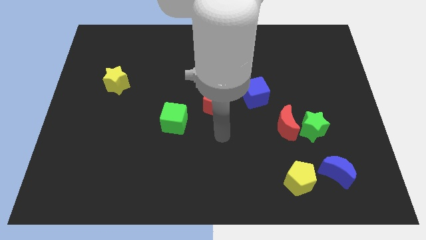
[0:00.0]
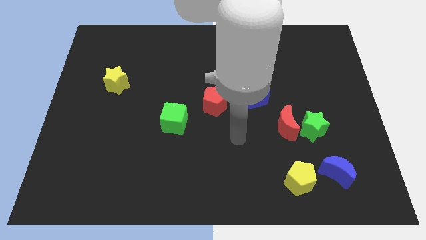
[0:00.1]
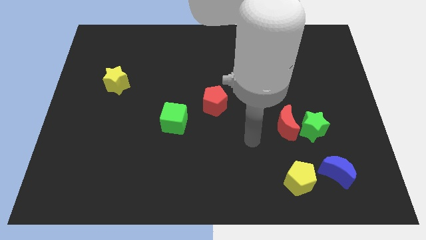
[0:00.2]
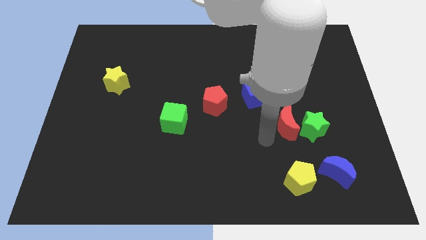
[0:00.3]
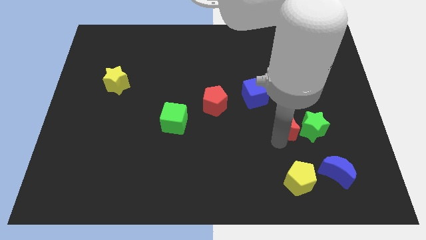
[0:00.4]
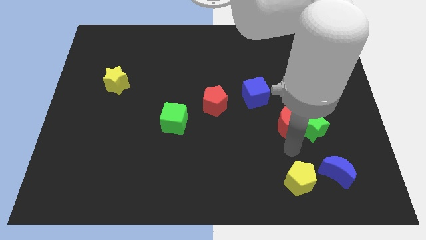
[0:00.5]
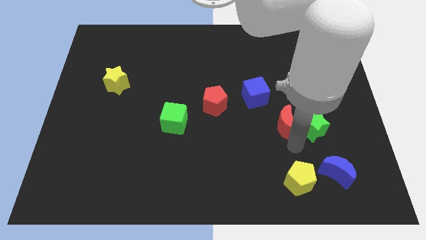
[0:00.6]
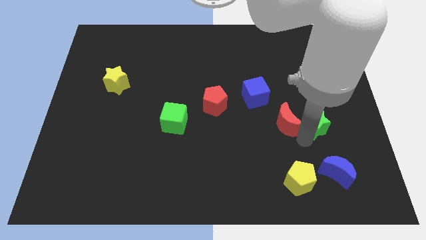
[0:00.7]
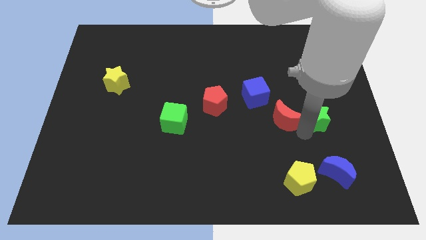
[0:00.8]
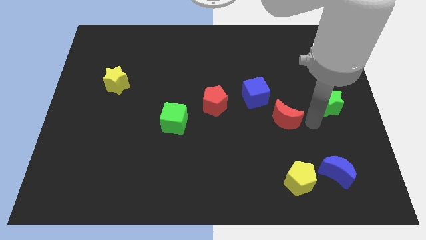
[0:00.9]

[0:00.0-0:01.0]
separate the red moon from the green star

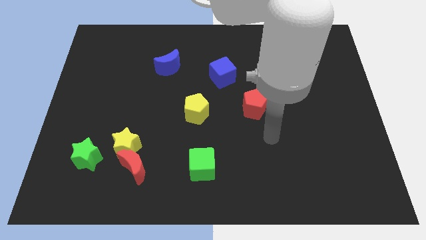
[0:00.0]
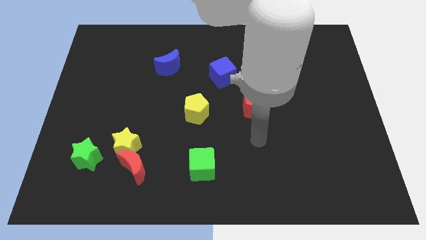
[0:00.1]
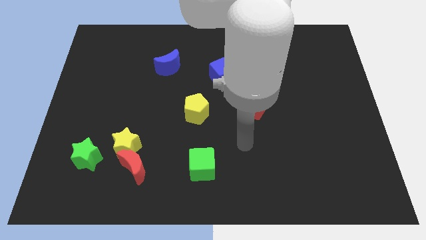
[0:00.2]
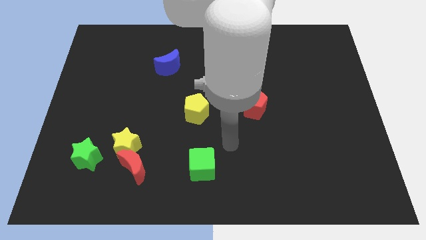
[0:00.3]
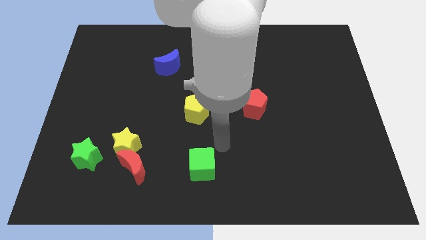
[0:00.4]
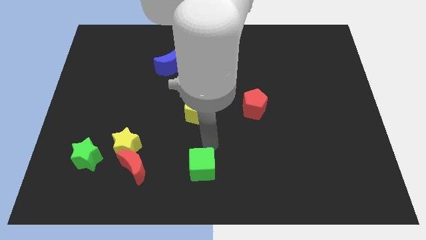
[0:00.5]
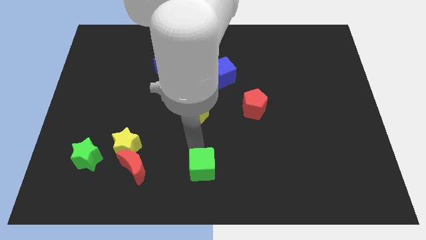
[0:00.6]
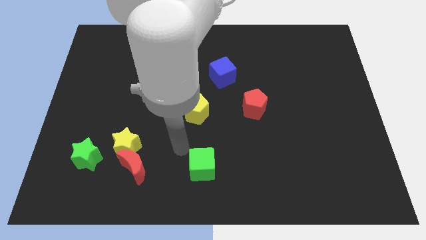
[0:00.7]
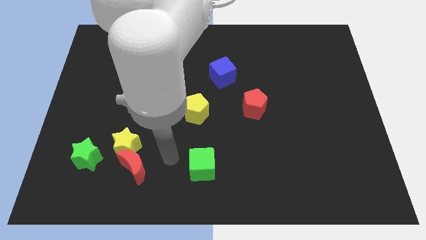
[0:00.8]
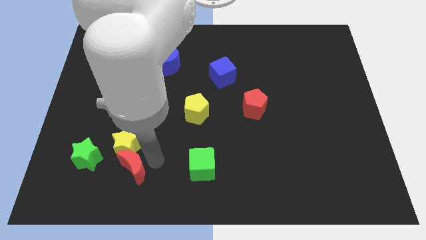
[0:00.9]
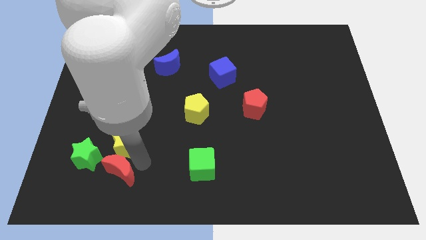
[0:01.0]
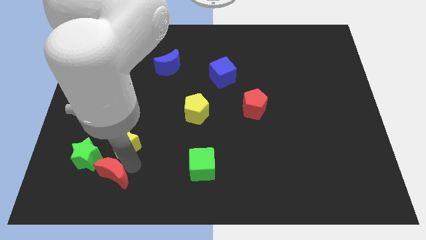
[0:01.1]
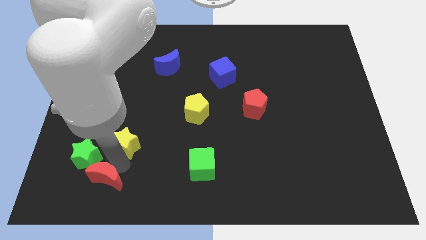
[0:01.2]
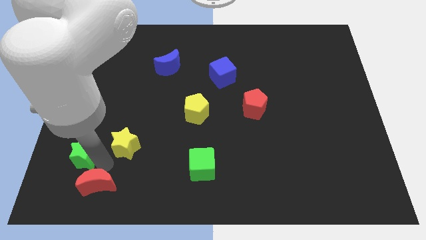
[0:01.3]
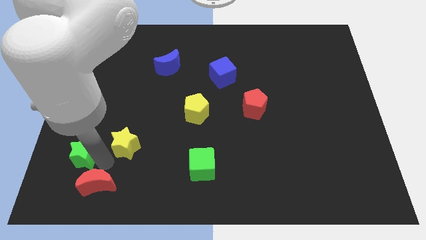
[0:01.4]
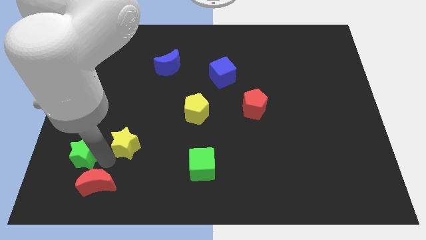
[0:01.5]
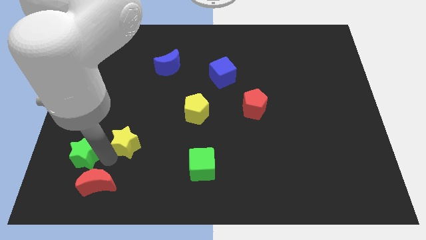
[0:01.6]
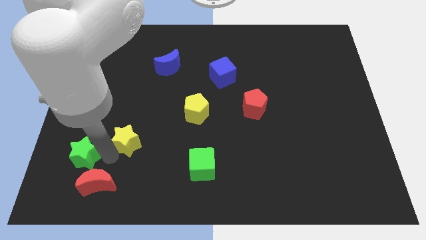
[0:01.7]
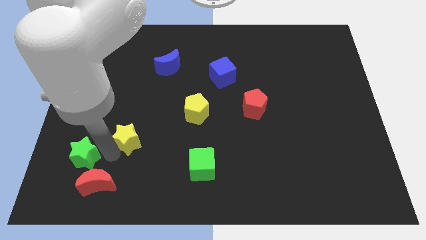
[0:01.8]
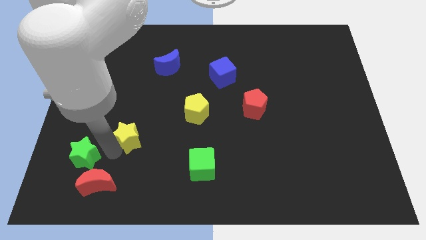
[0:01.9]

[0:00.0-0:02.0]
pull the yellow star apart from the red moon and green star

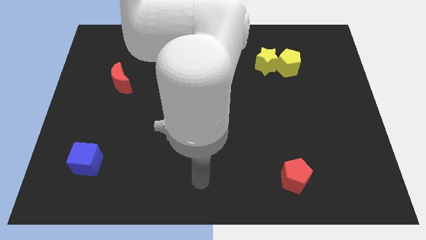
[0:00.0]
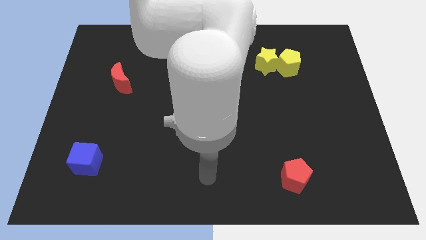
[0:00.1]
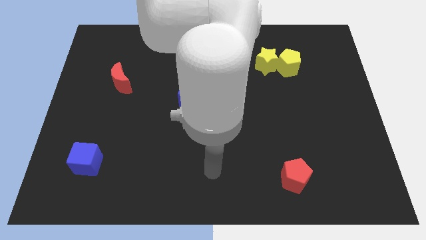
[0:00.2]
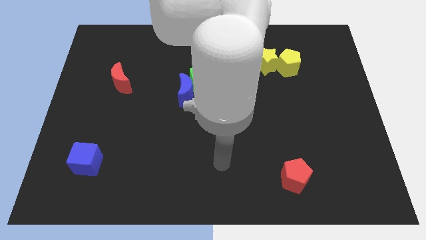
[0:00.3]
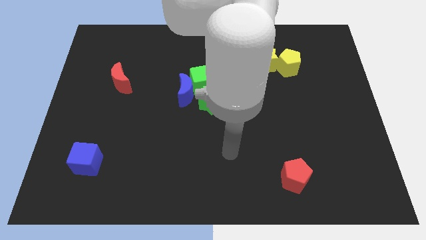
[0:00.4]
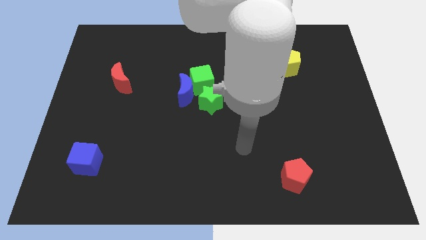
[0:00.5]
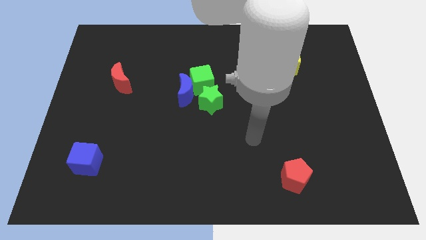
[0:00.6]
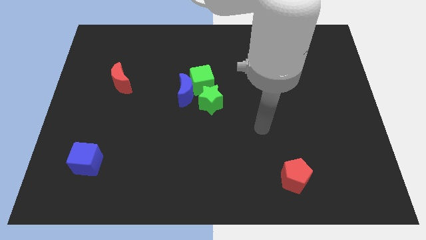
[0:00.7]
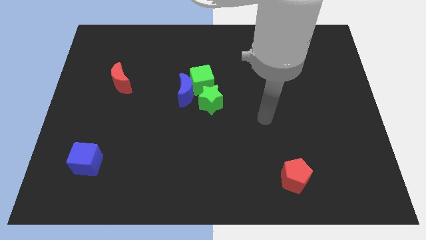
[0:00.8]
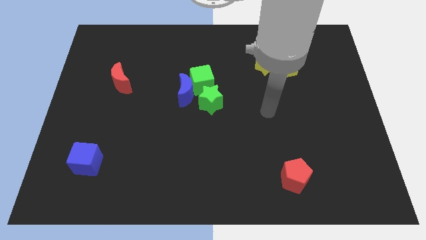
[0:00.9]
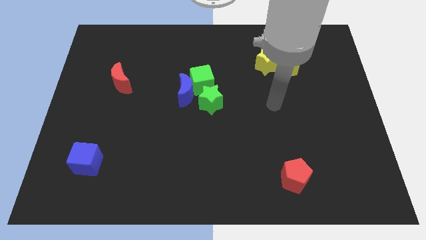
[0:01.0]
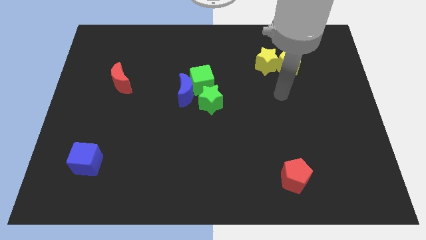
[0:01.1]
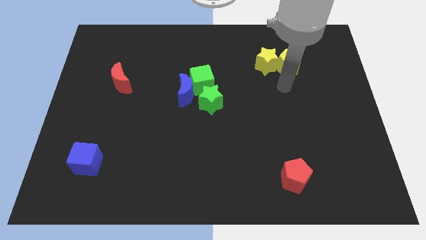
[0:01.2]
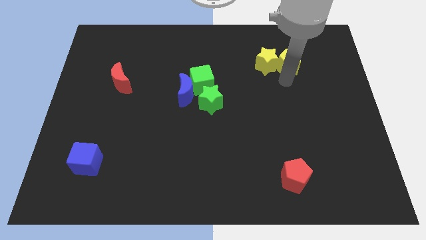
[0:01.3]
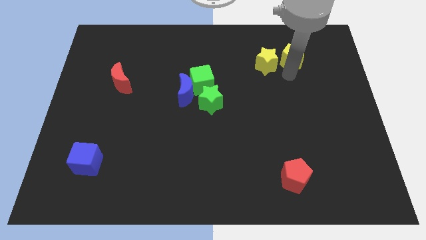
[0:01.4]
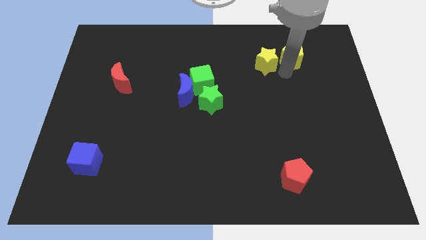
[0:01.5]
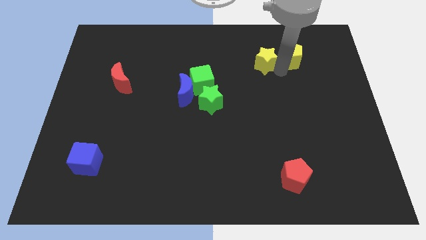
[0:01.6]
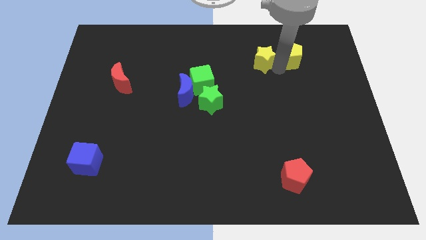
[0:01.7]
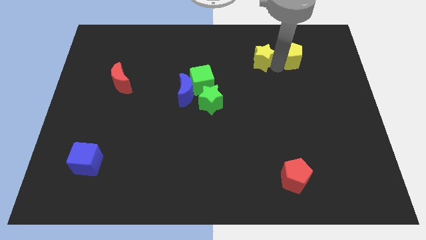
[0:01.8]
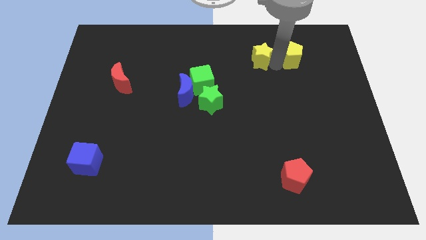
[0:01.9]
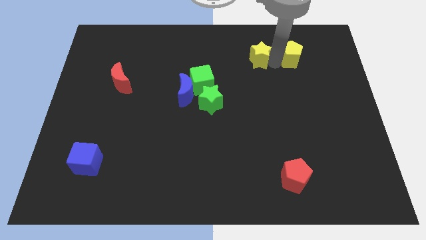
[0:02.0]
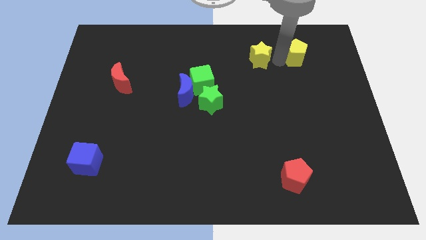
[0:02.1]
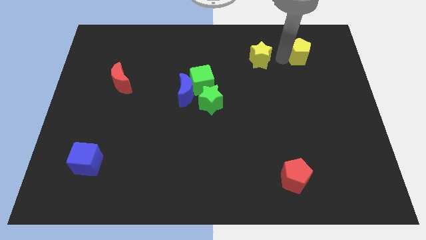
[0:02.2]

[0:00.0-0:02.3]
pull the yellow star apart from the yellow pentagon

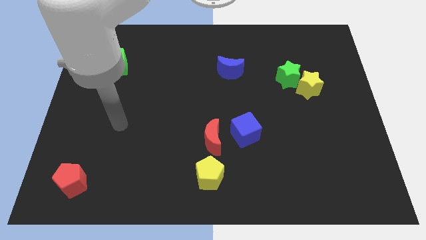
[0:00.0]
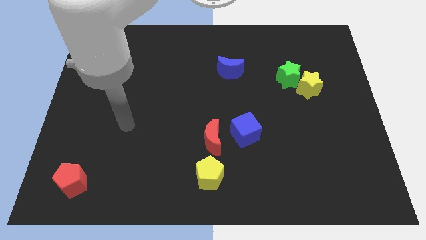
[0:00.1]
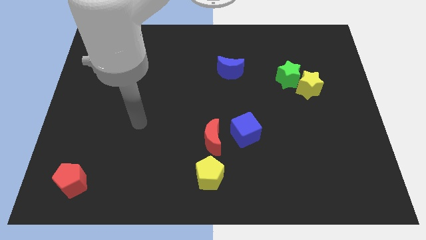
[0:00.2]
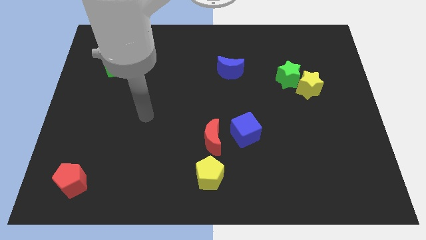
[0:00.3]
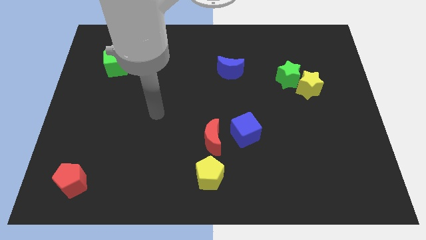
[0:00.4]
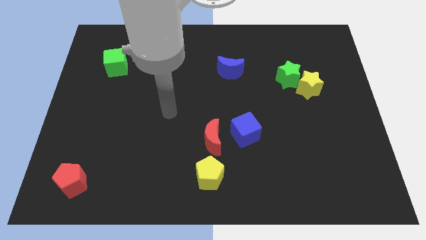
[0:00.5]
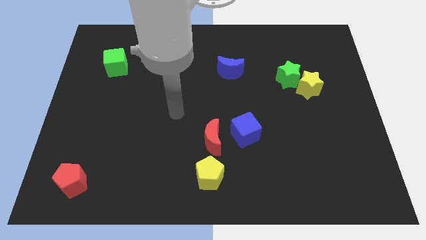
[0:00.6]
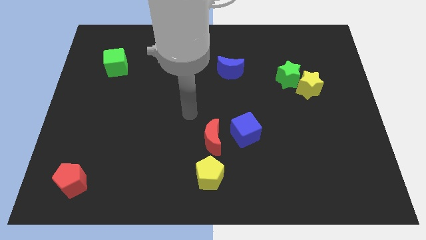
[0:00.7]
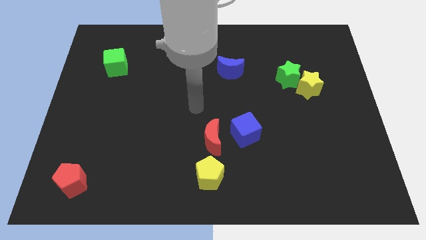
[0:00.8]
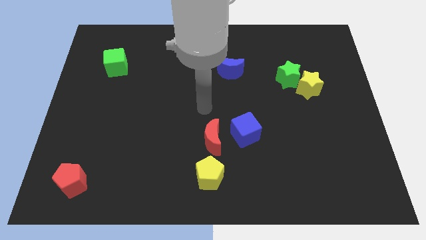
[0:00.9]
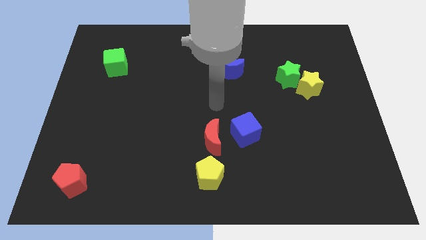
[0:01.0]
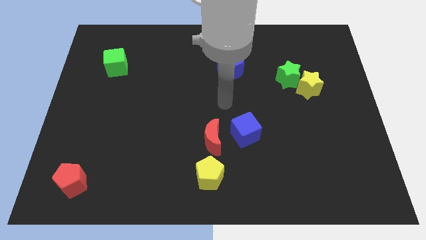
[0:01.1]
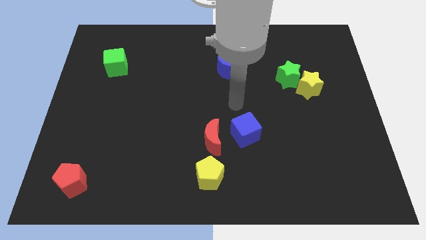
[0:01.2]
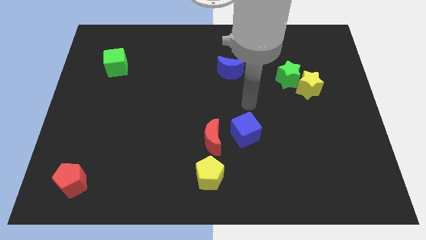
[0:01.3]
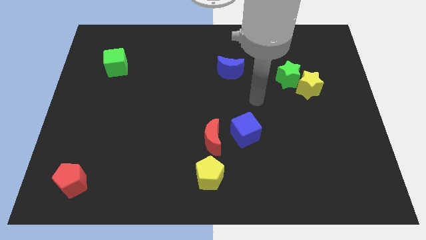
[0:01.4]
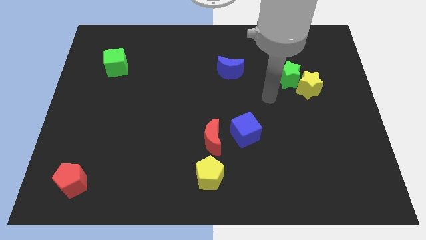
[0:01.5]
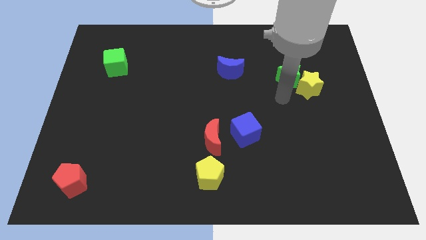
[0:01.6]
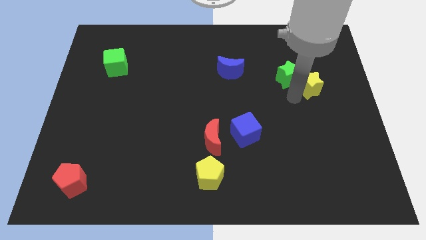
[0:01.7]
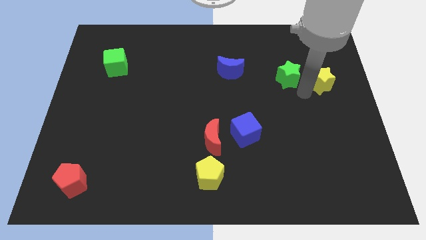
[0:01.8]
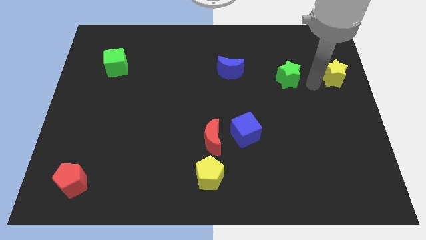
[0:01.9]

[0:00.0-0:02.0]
separate the green star from the yellow star

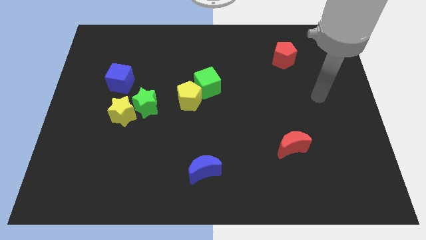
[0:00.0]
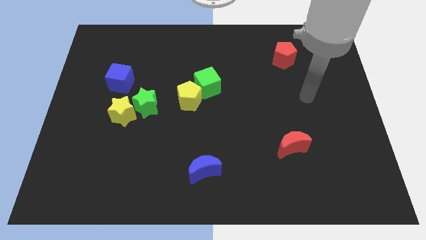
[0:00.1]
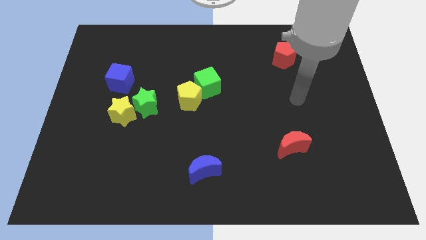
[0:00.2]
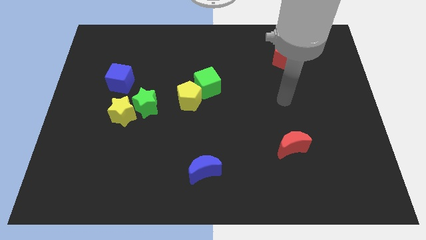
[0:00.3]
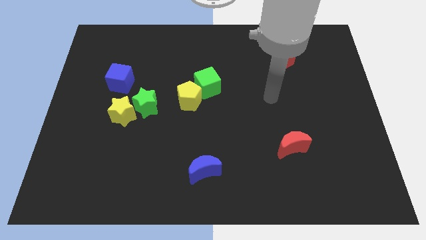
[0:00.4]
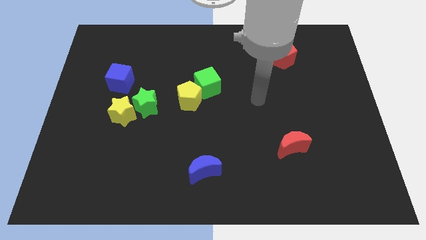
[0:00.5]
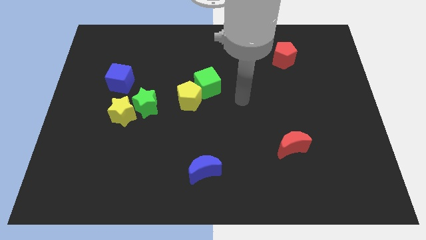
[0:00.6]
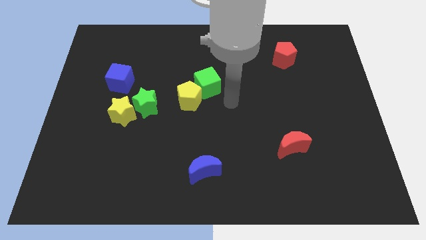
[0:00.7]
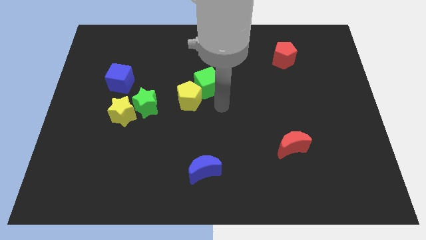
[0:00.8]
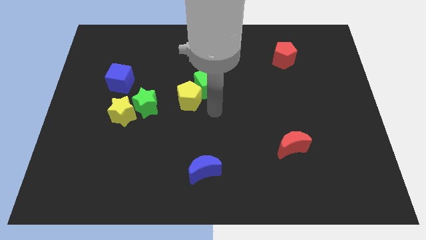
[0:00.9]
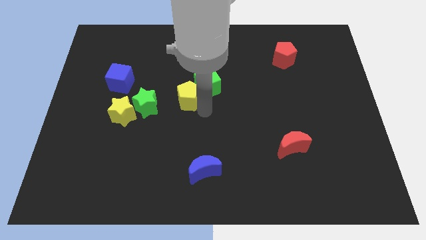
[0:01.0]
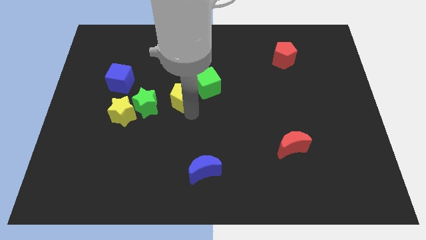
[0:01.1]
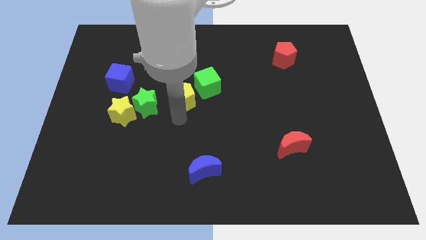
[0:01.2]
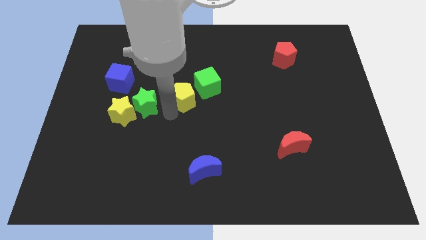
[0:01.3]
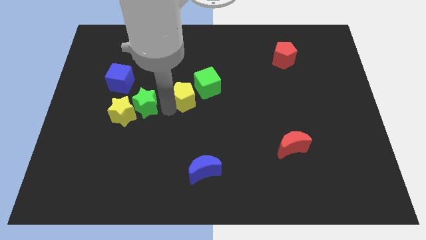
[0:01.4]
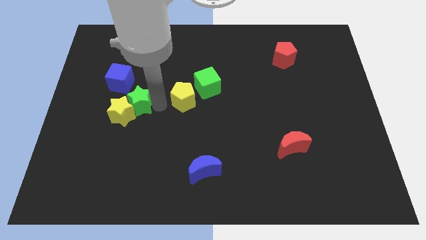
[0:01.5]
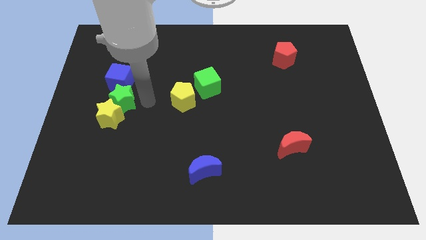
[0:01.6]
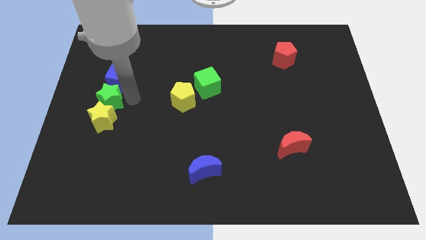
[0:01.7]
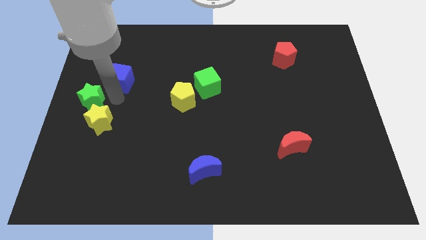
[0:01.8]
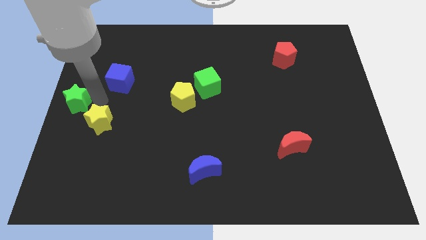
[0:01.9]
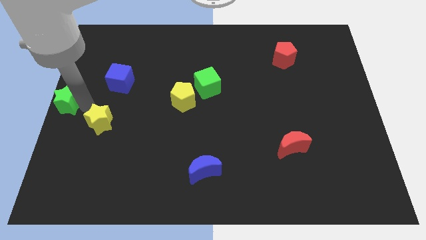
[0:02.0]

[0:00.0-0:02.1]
move the yellow star away from the green star
